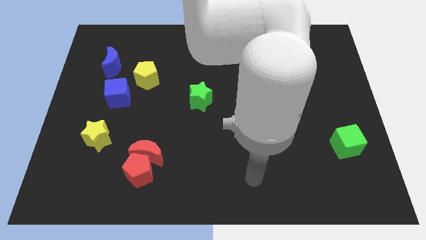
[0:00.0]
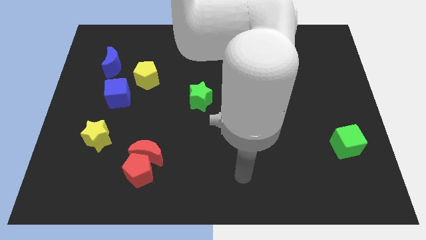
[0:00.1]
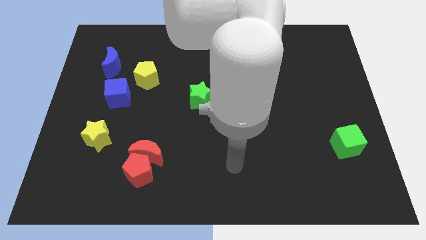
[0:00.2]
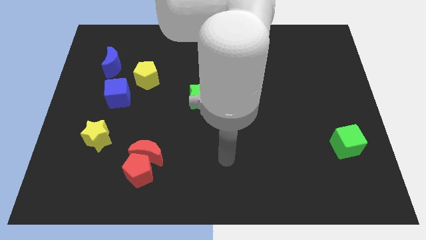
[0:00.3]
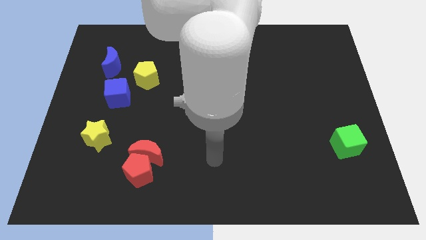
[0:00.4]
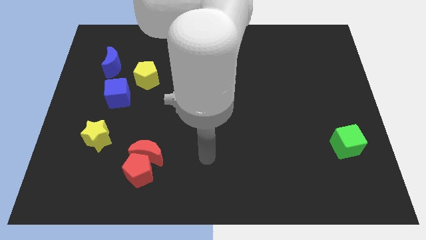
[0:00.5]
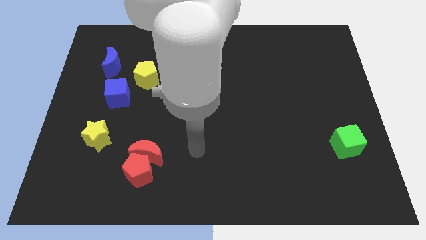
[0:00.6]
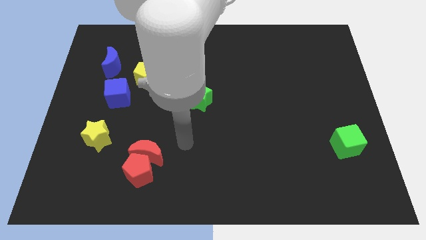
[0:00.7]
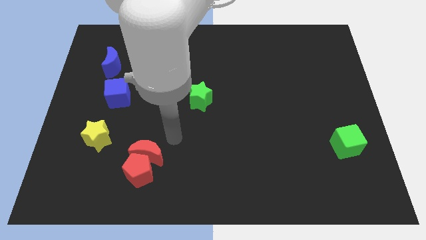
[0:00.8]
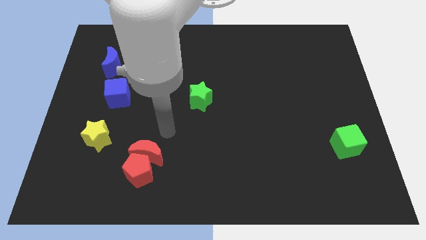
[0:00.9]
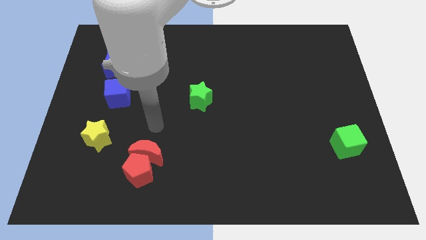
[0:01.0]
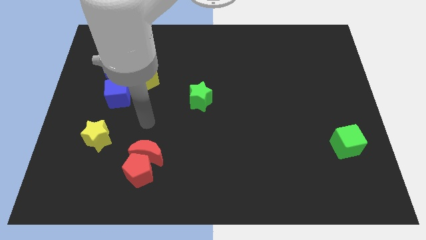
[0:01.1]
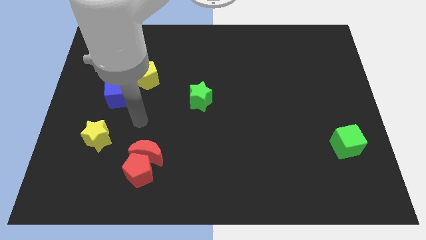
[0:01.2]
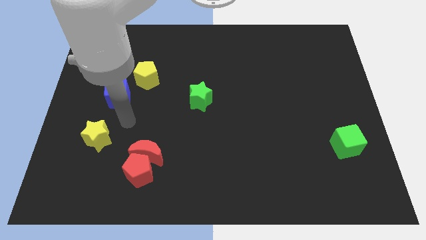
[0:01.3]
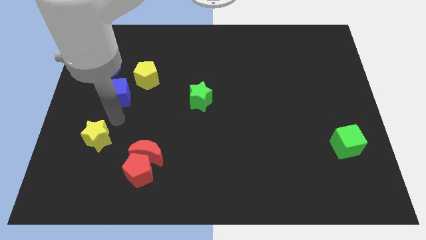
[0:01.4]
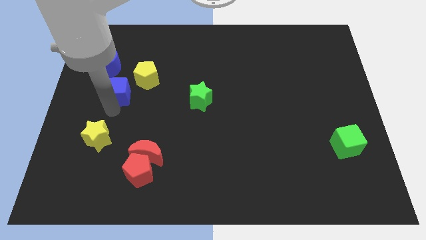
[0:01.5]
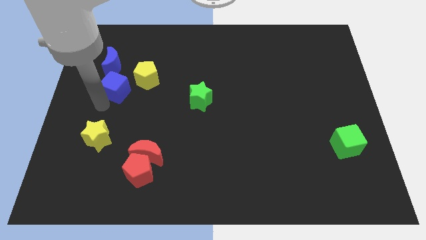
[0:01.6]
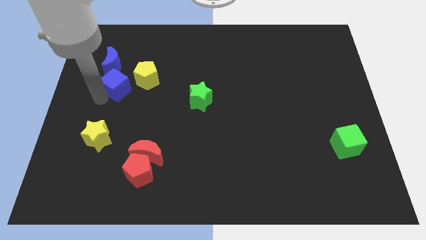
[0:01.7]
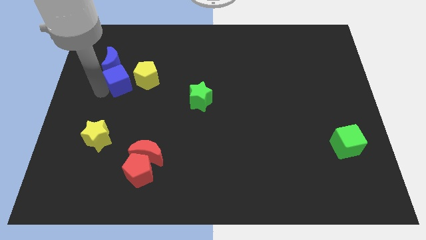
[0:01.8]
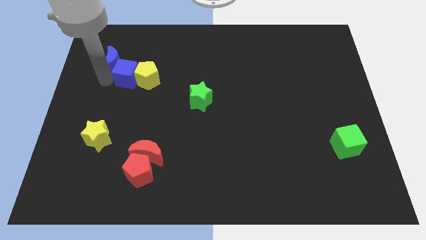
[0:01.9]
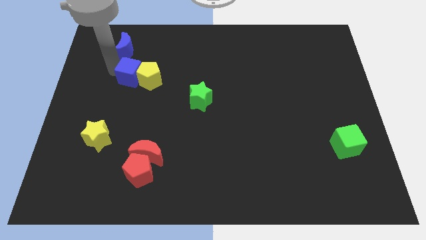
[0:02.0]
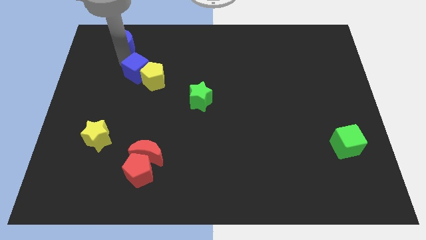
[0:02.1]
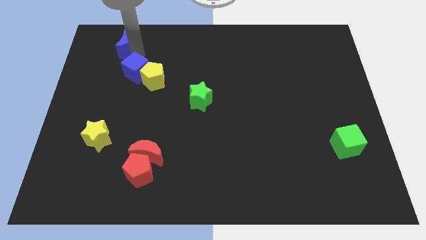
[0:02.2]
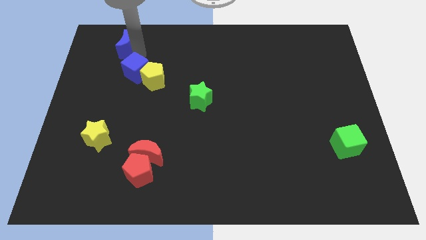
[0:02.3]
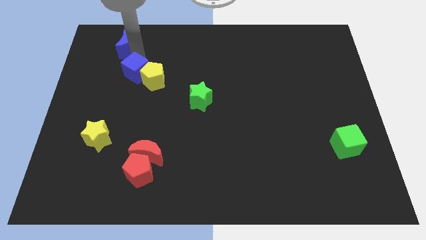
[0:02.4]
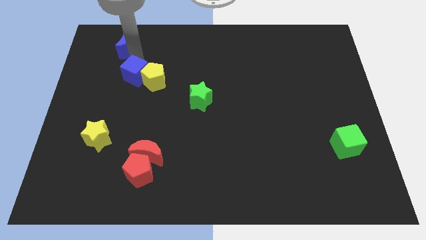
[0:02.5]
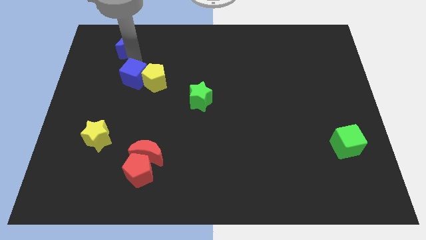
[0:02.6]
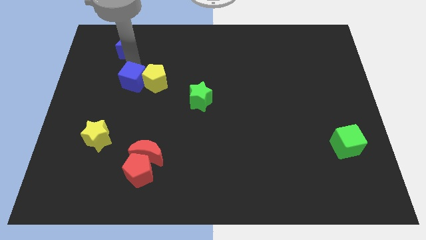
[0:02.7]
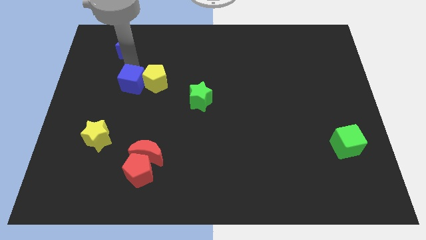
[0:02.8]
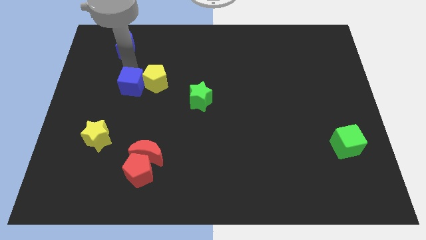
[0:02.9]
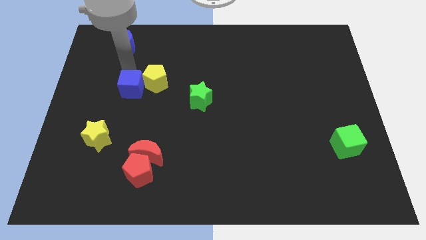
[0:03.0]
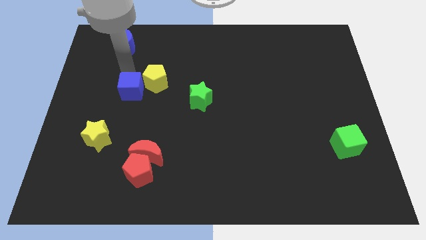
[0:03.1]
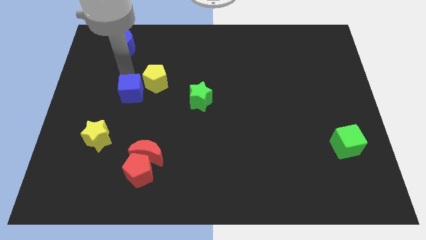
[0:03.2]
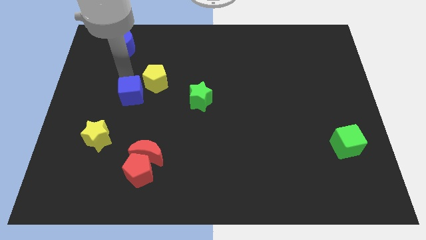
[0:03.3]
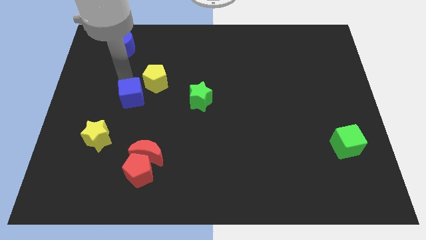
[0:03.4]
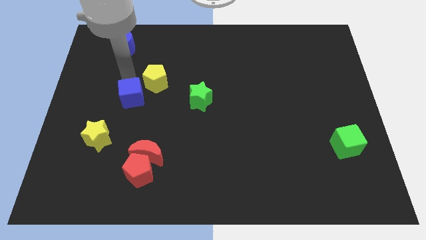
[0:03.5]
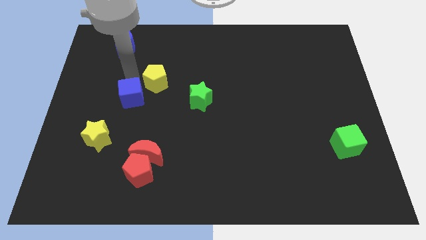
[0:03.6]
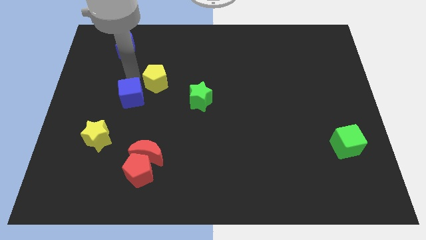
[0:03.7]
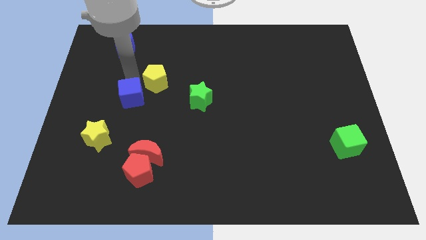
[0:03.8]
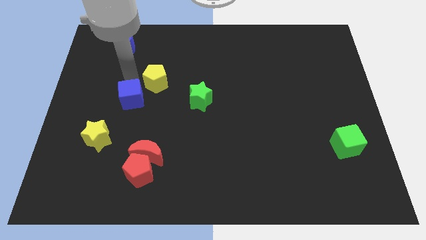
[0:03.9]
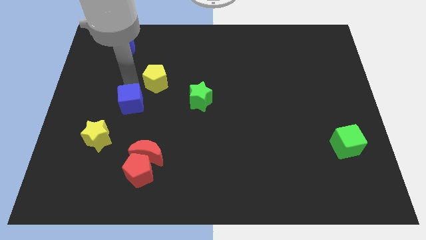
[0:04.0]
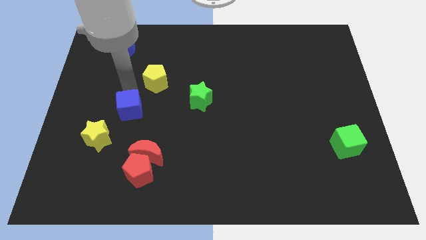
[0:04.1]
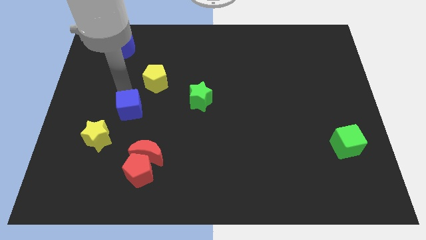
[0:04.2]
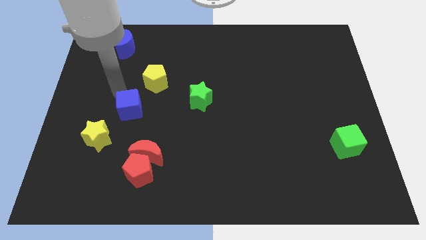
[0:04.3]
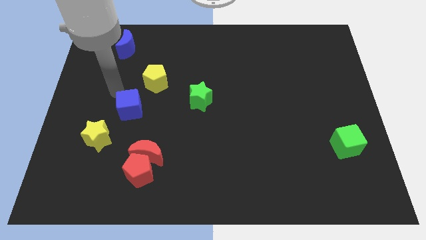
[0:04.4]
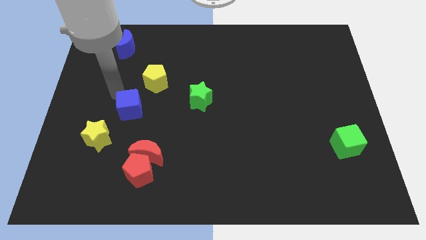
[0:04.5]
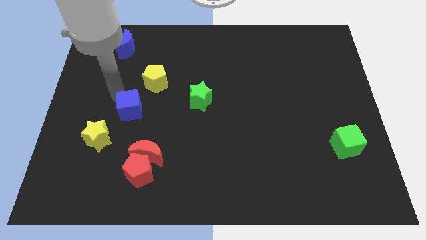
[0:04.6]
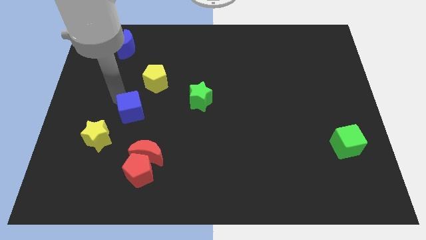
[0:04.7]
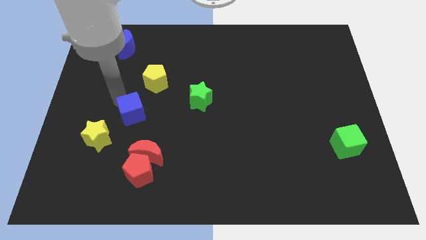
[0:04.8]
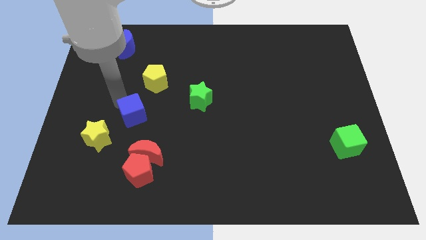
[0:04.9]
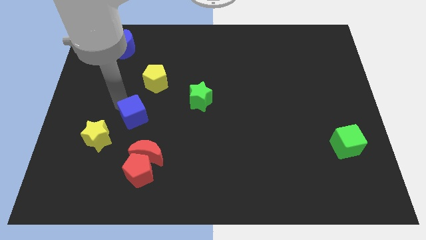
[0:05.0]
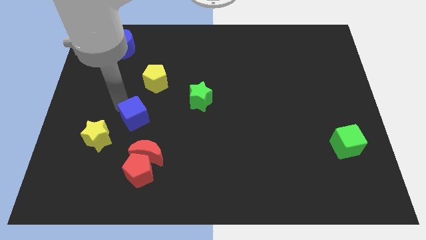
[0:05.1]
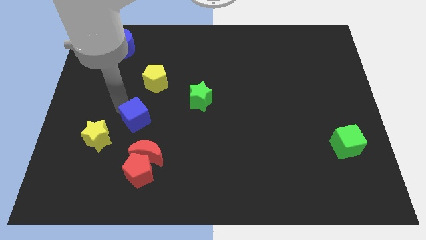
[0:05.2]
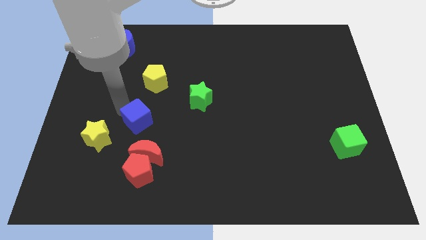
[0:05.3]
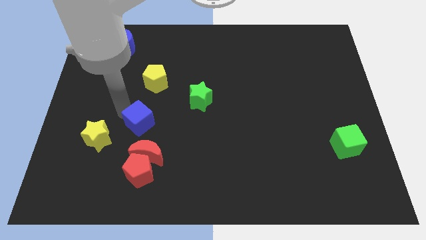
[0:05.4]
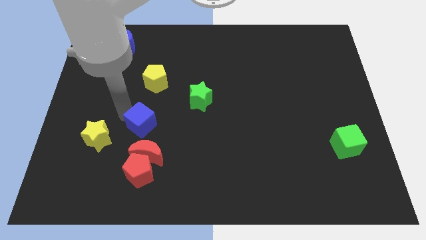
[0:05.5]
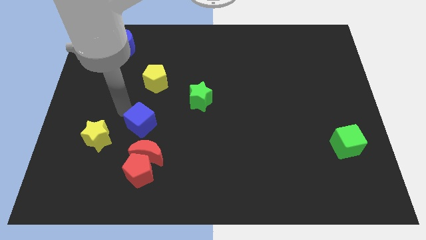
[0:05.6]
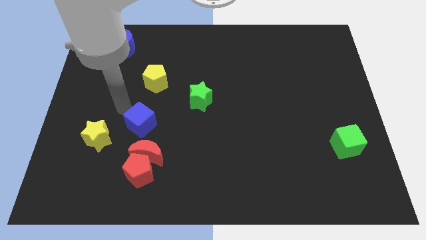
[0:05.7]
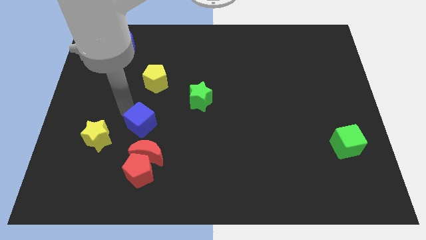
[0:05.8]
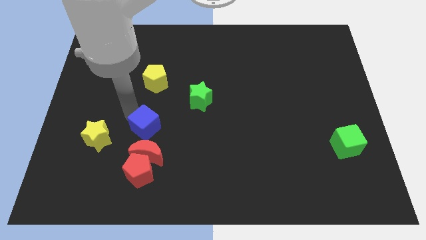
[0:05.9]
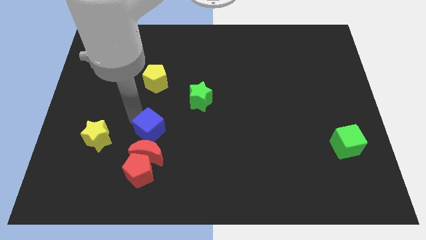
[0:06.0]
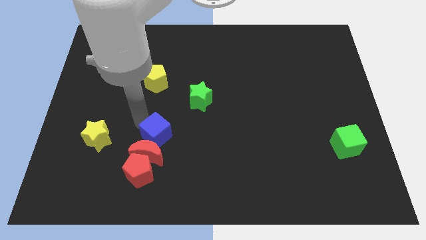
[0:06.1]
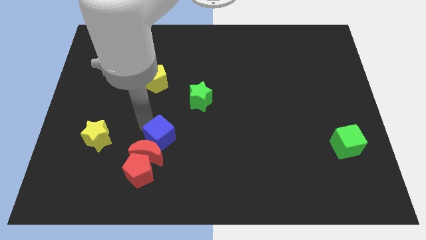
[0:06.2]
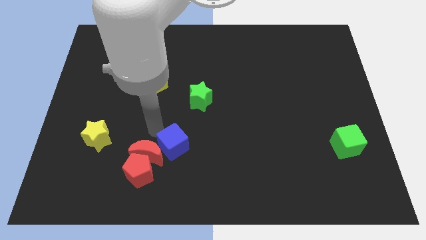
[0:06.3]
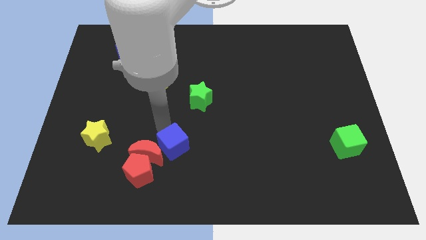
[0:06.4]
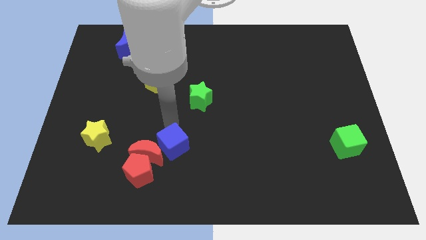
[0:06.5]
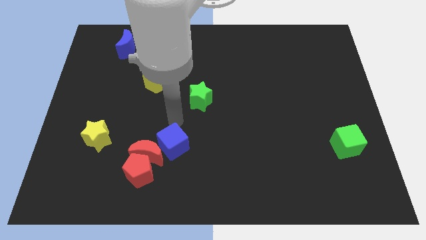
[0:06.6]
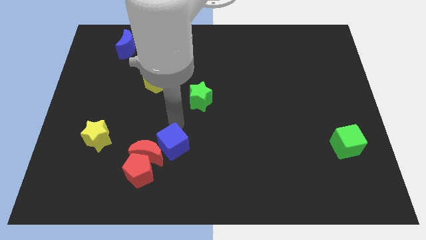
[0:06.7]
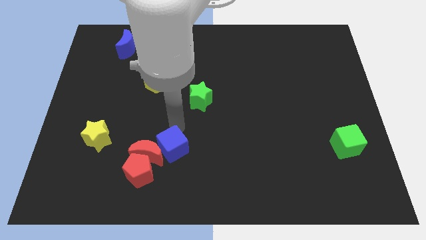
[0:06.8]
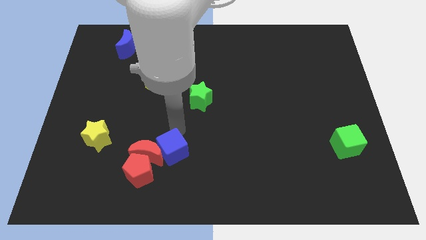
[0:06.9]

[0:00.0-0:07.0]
push the blue cube to the bottom right of the red moon
